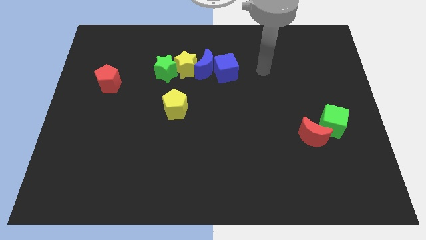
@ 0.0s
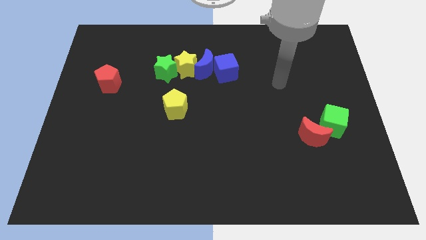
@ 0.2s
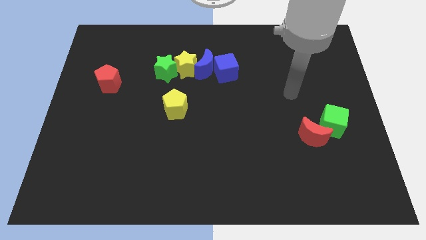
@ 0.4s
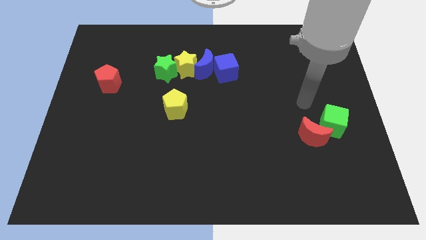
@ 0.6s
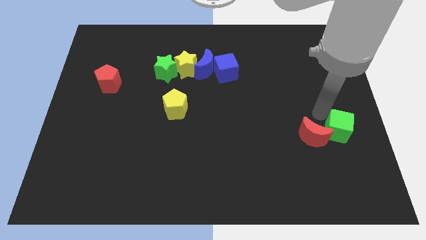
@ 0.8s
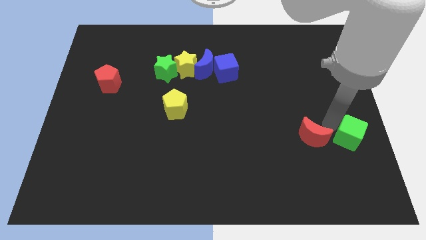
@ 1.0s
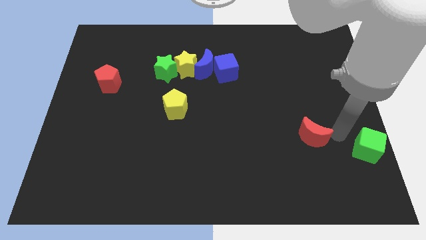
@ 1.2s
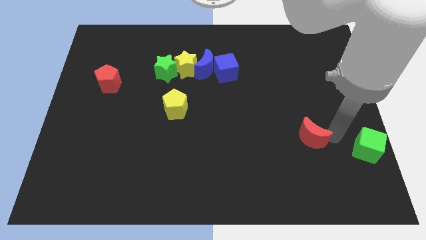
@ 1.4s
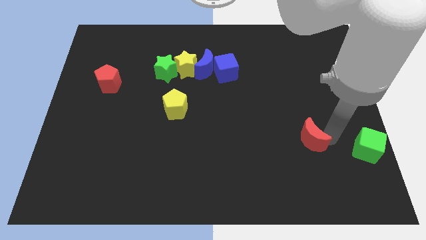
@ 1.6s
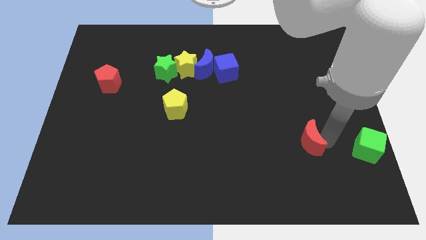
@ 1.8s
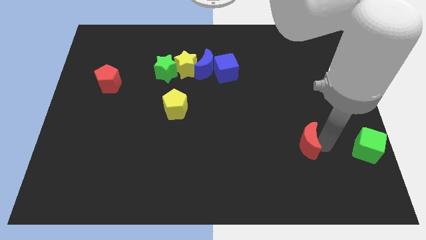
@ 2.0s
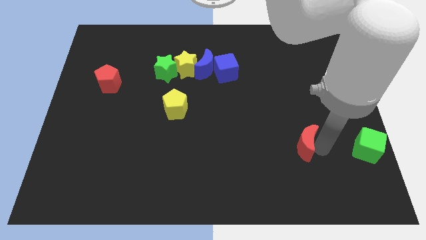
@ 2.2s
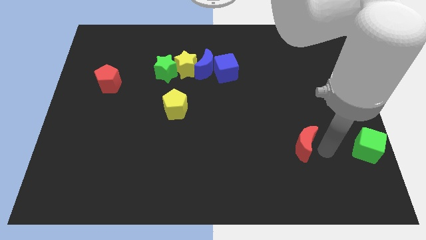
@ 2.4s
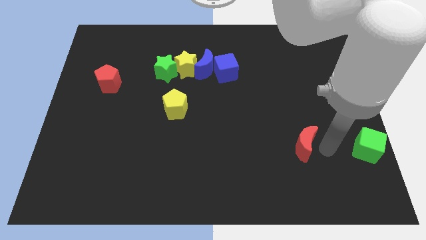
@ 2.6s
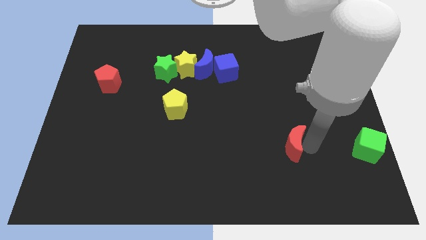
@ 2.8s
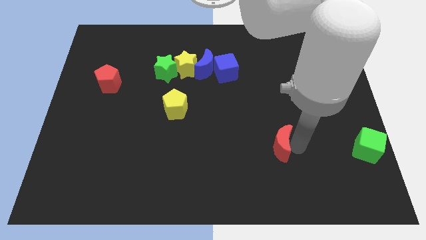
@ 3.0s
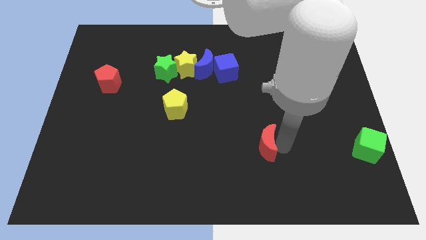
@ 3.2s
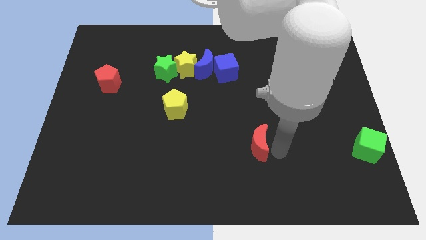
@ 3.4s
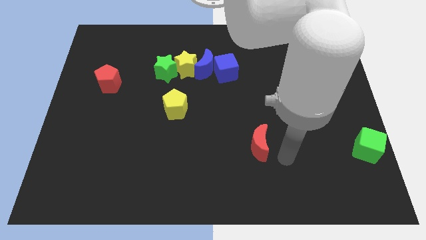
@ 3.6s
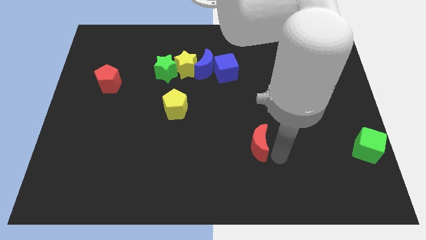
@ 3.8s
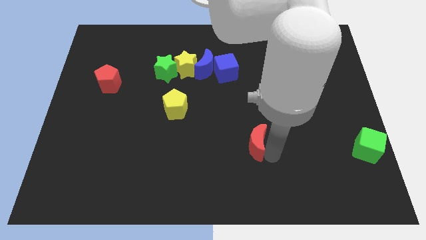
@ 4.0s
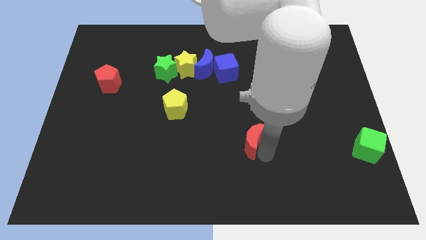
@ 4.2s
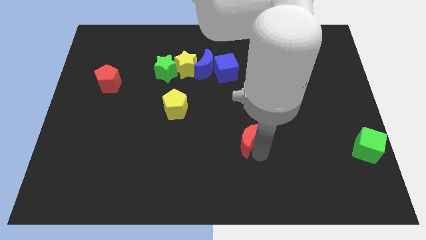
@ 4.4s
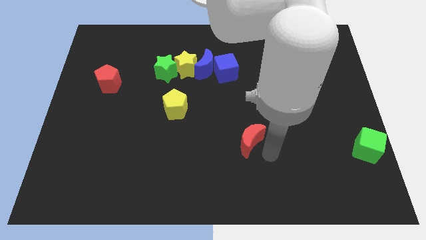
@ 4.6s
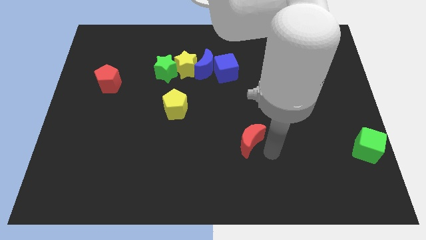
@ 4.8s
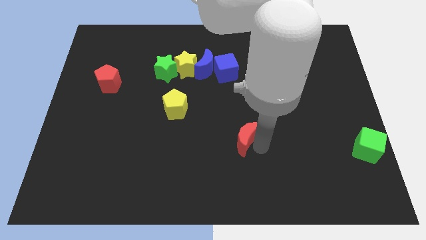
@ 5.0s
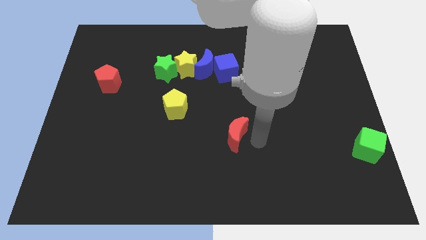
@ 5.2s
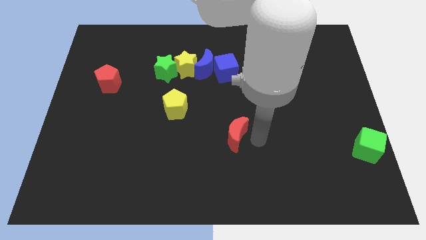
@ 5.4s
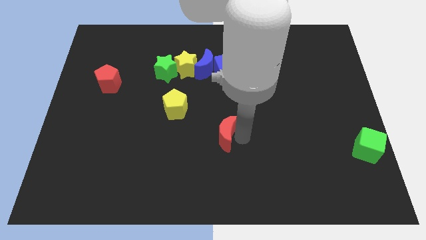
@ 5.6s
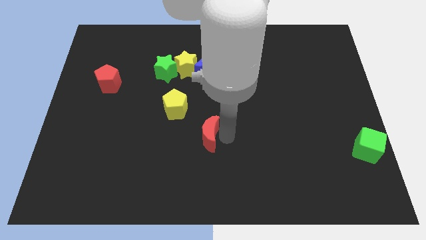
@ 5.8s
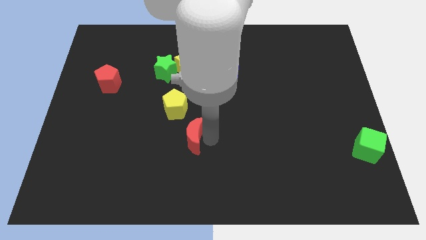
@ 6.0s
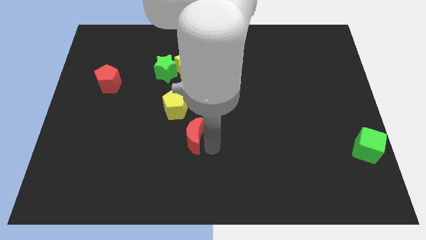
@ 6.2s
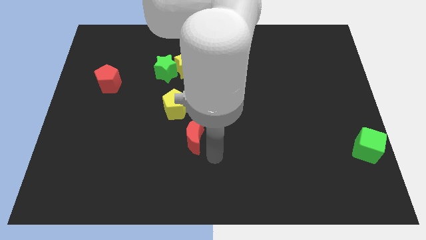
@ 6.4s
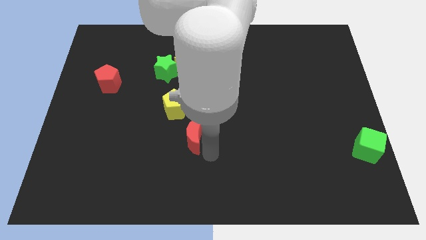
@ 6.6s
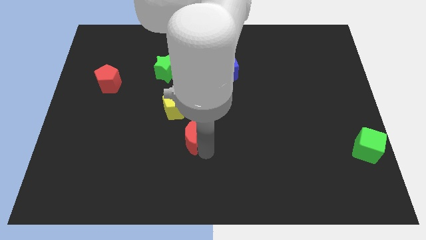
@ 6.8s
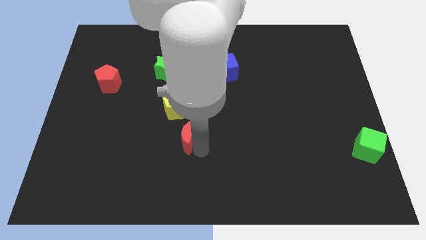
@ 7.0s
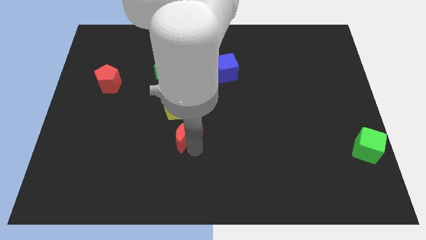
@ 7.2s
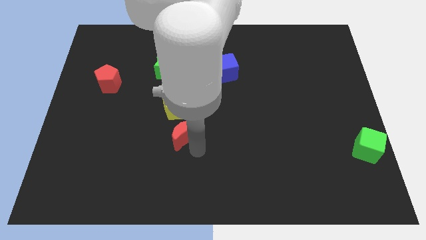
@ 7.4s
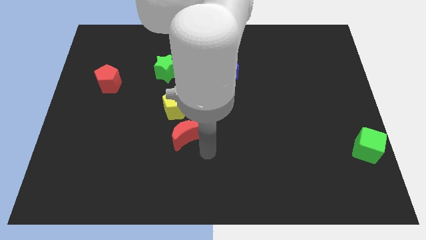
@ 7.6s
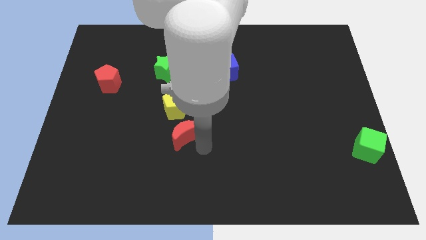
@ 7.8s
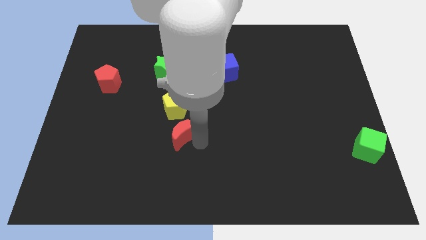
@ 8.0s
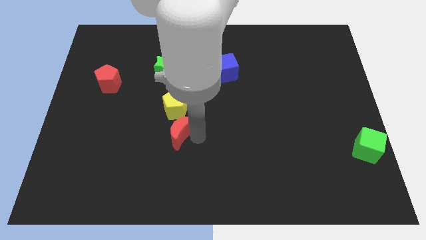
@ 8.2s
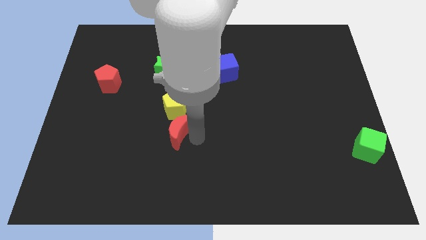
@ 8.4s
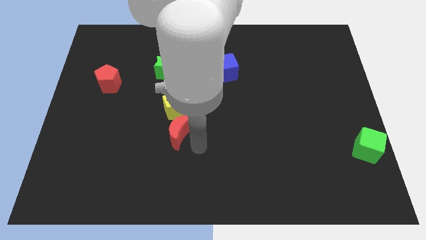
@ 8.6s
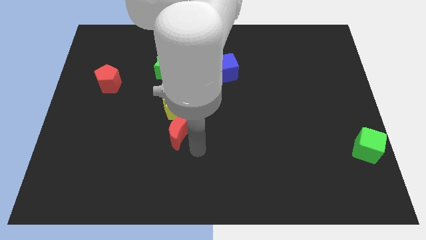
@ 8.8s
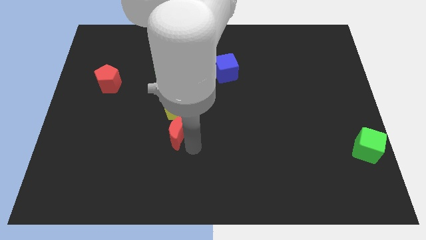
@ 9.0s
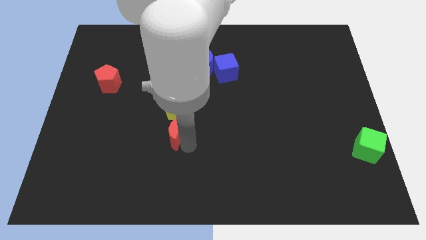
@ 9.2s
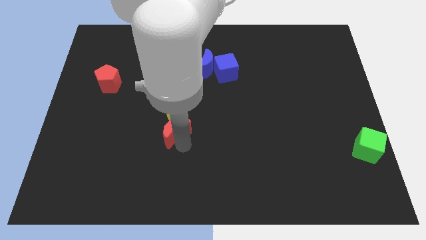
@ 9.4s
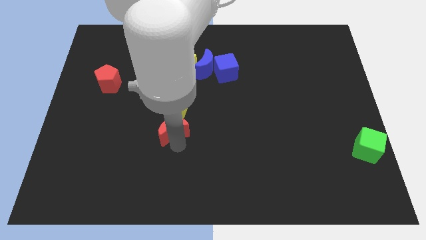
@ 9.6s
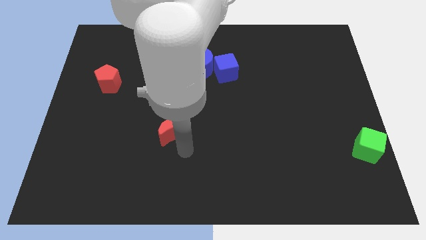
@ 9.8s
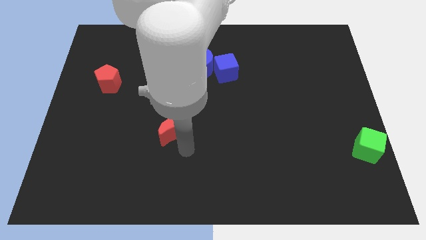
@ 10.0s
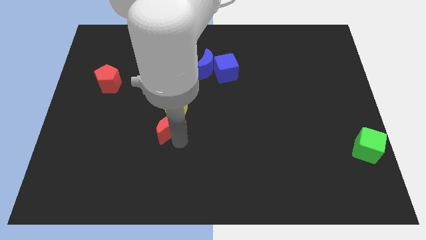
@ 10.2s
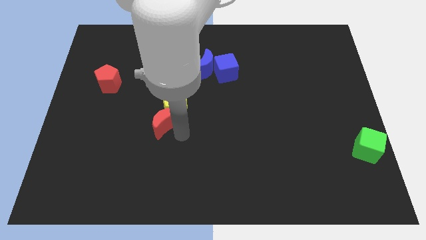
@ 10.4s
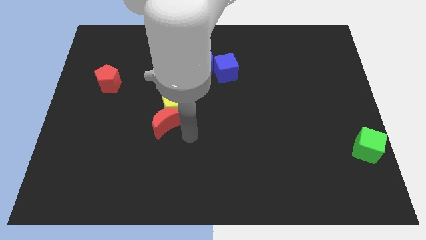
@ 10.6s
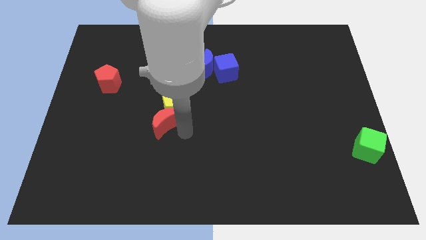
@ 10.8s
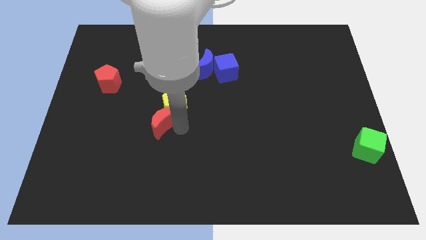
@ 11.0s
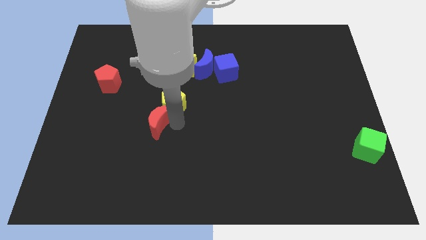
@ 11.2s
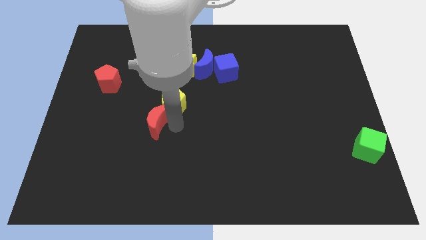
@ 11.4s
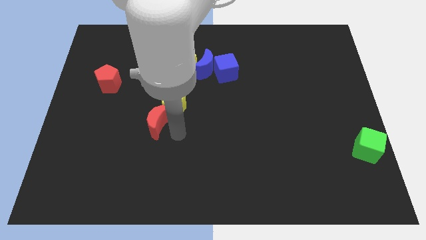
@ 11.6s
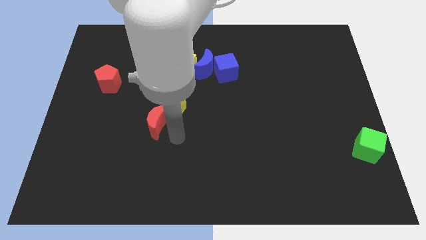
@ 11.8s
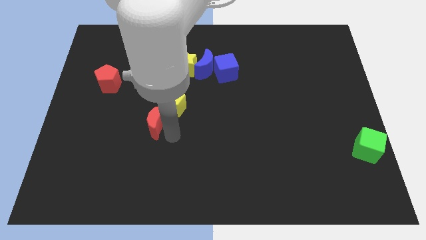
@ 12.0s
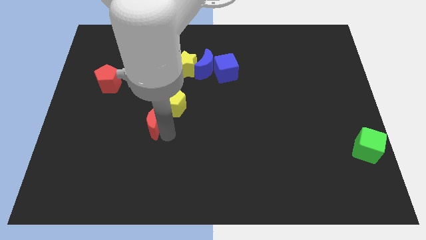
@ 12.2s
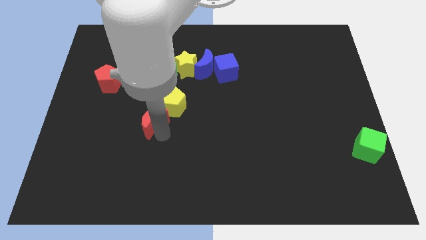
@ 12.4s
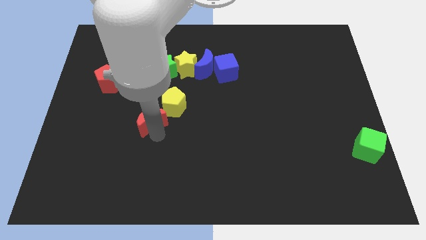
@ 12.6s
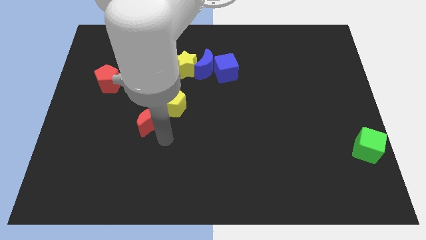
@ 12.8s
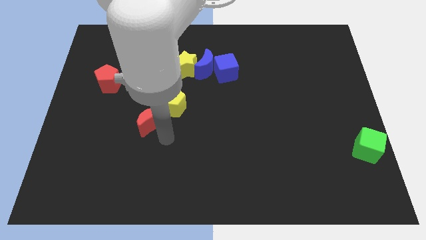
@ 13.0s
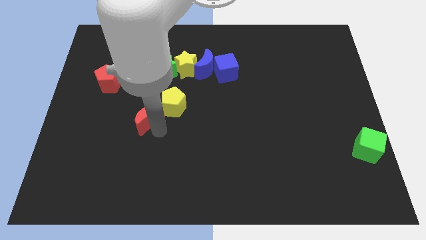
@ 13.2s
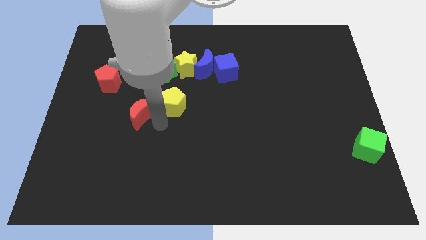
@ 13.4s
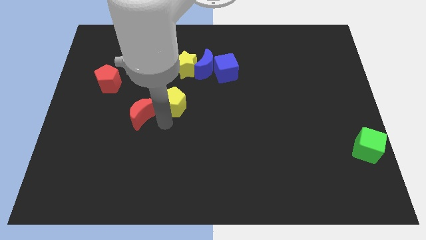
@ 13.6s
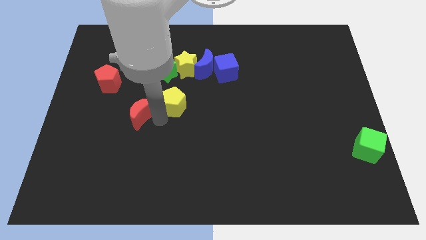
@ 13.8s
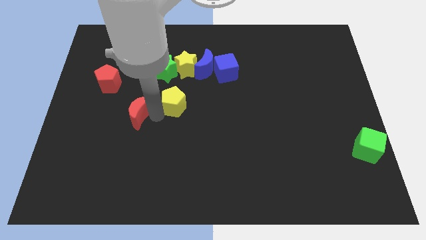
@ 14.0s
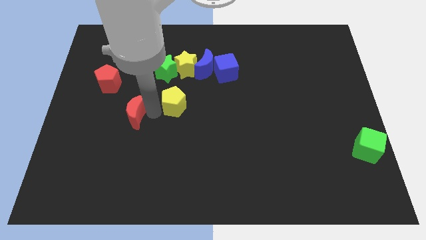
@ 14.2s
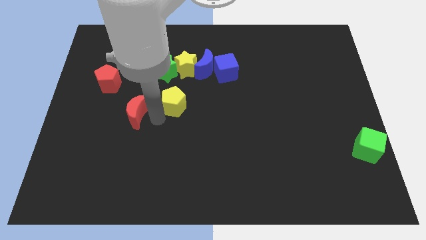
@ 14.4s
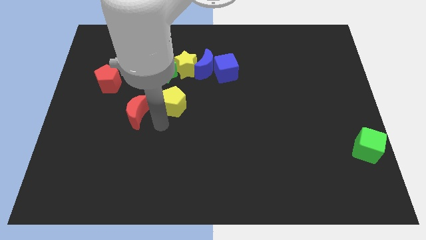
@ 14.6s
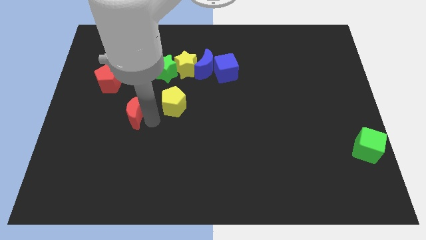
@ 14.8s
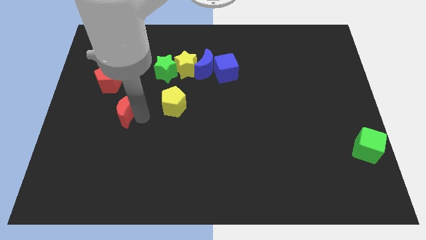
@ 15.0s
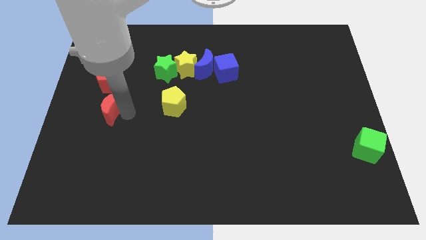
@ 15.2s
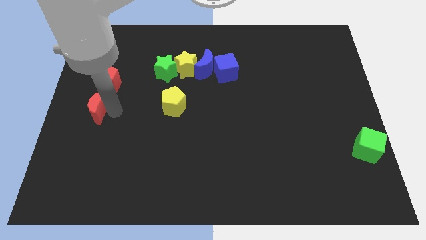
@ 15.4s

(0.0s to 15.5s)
push the red moon to the left side
